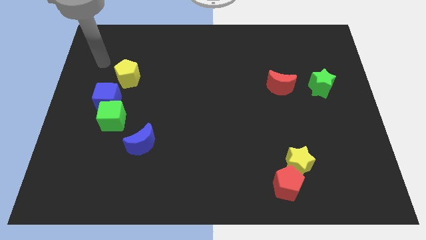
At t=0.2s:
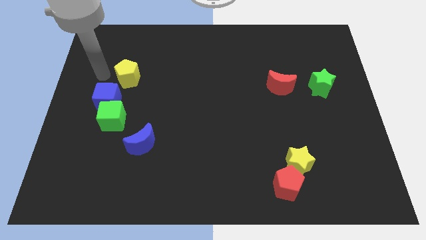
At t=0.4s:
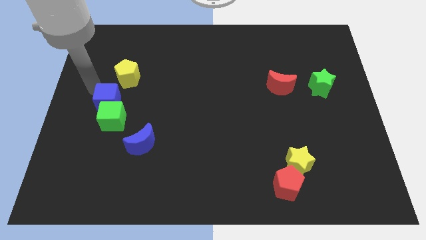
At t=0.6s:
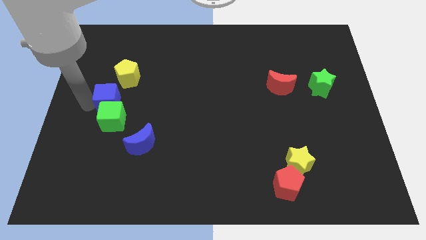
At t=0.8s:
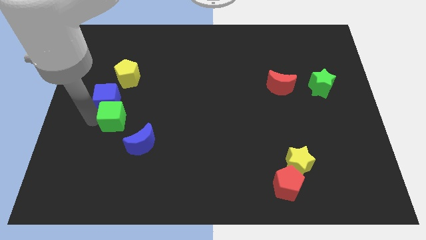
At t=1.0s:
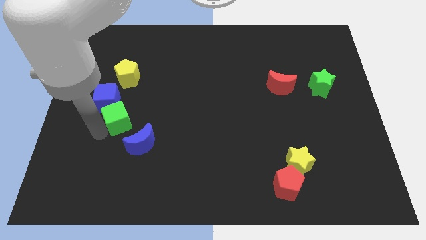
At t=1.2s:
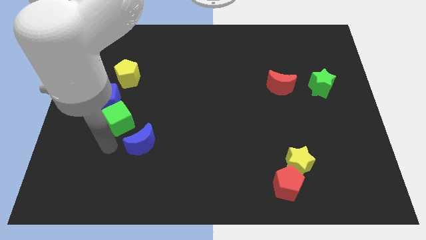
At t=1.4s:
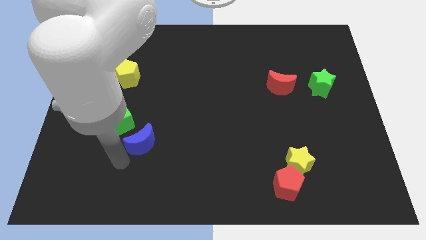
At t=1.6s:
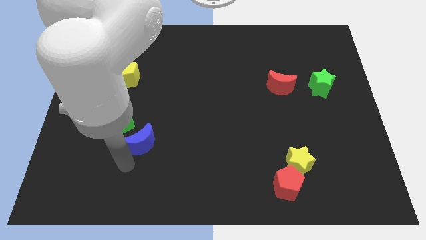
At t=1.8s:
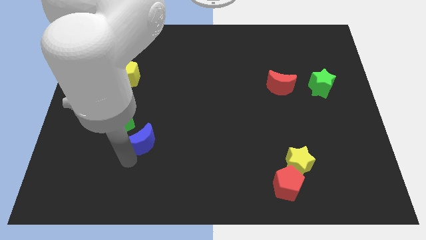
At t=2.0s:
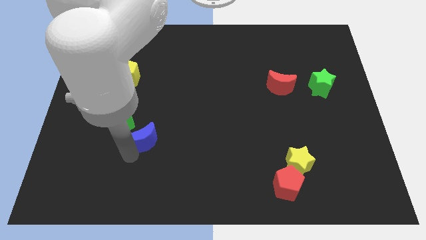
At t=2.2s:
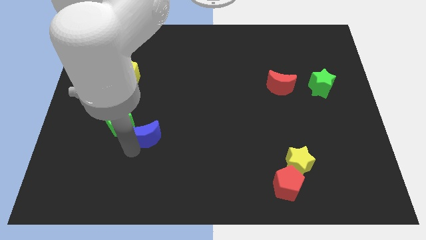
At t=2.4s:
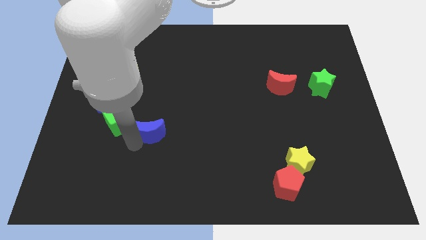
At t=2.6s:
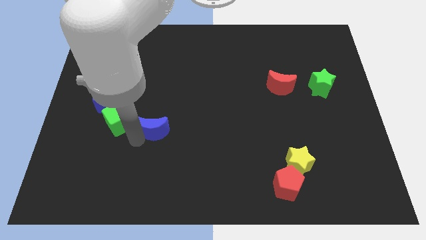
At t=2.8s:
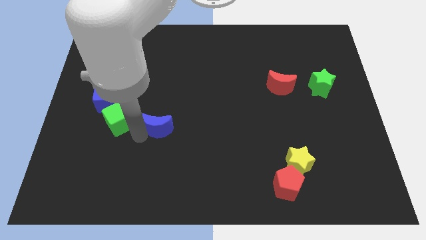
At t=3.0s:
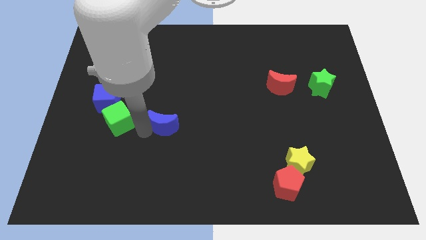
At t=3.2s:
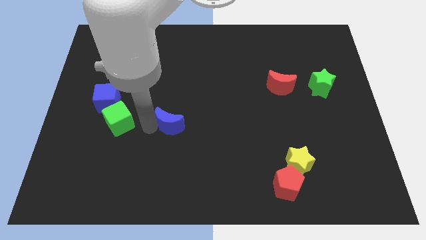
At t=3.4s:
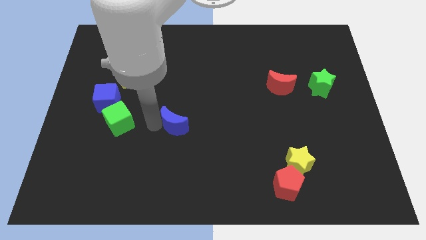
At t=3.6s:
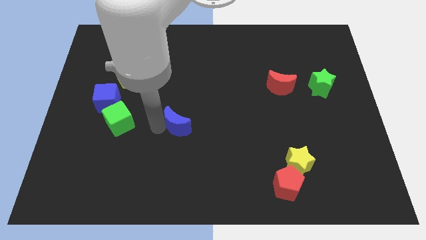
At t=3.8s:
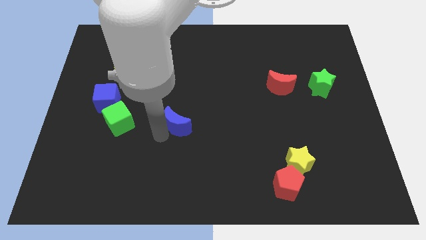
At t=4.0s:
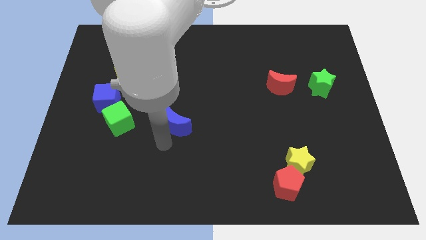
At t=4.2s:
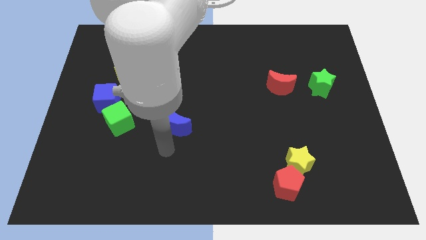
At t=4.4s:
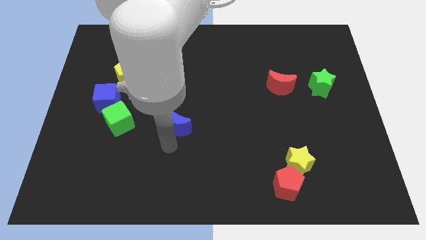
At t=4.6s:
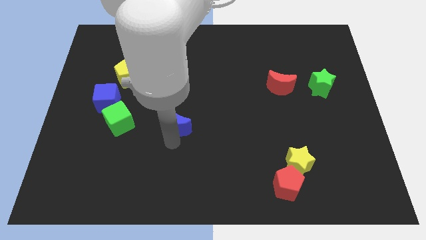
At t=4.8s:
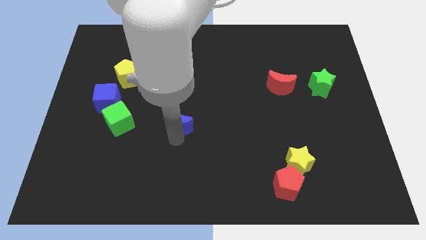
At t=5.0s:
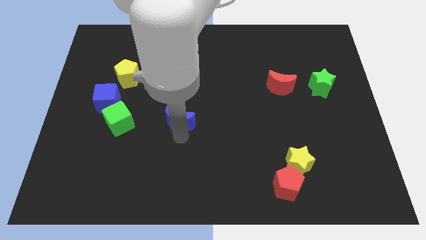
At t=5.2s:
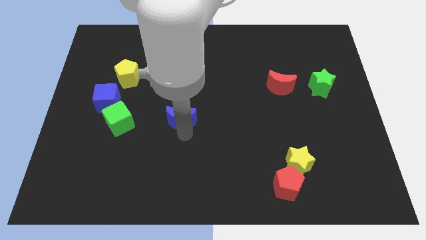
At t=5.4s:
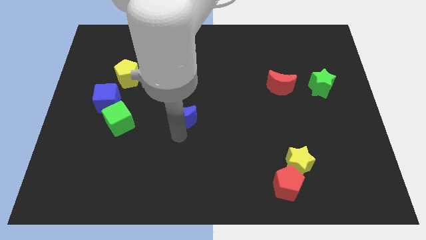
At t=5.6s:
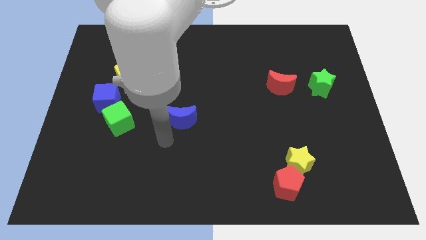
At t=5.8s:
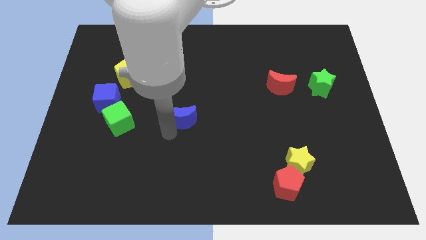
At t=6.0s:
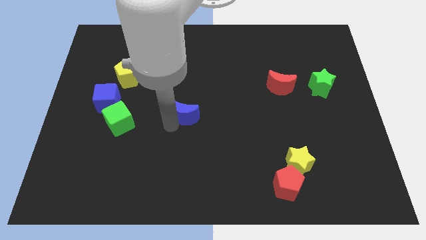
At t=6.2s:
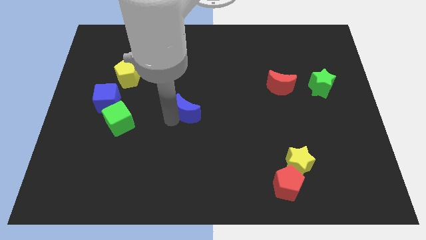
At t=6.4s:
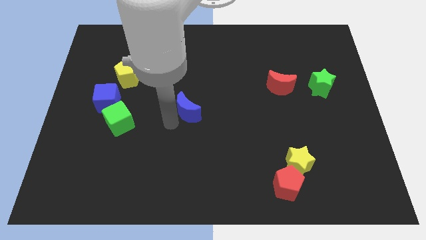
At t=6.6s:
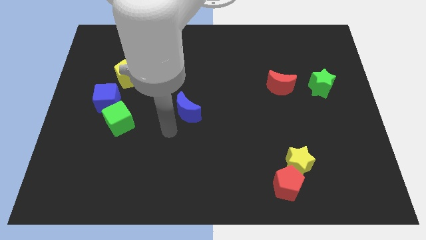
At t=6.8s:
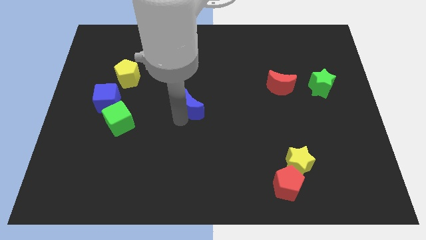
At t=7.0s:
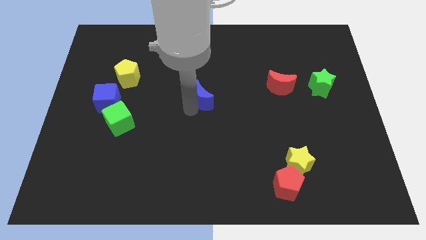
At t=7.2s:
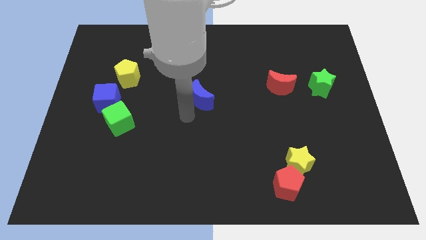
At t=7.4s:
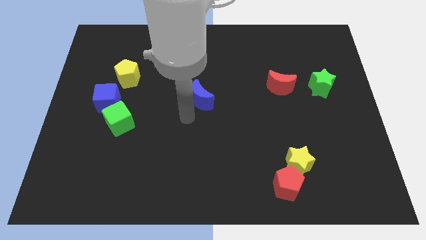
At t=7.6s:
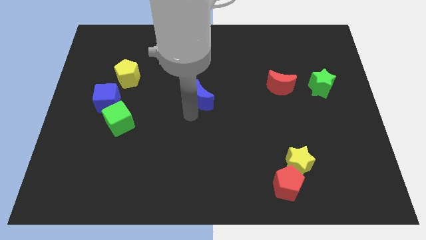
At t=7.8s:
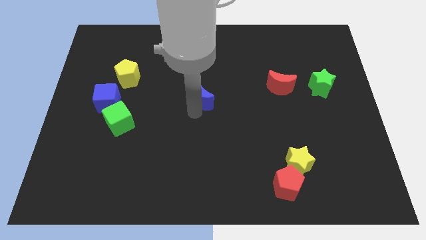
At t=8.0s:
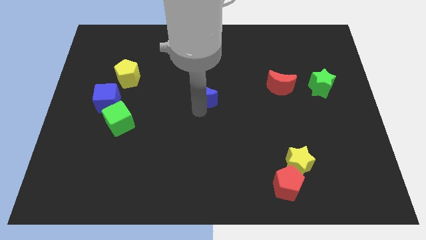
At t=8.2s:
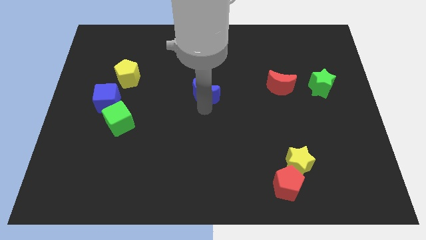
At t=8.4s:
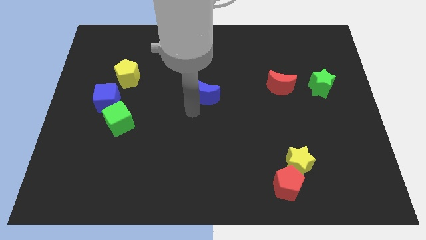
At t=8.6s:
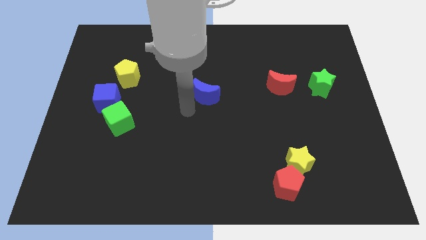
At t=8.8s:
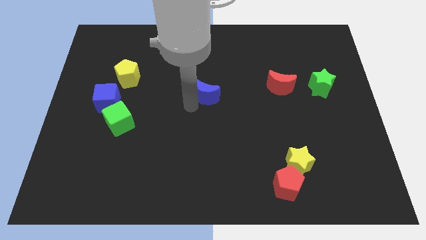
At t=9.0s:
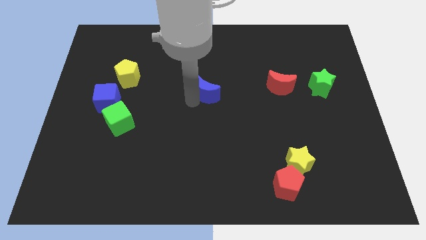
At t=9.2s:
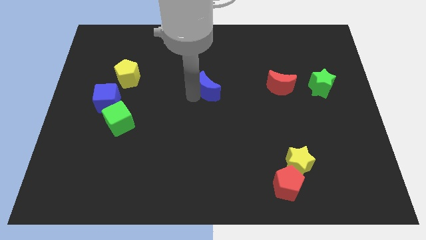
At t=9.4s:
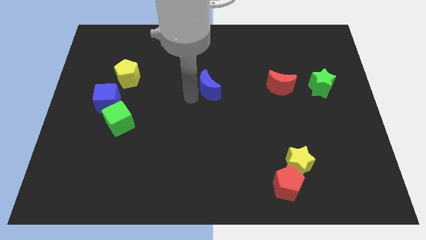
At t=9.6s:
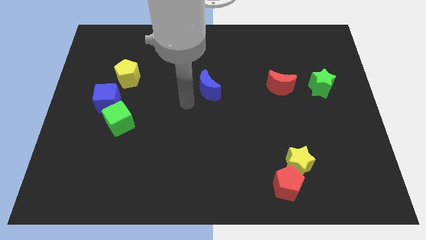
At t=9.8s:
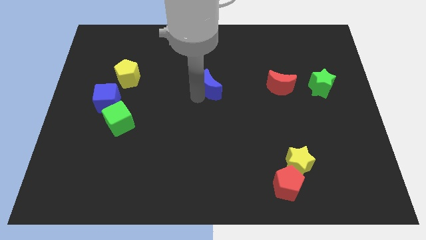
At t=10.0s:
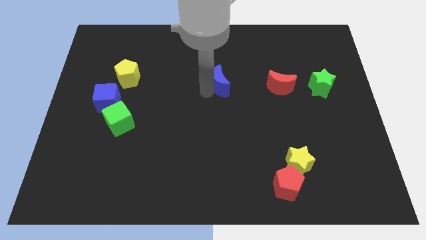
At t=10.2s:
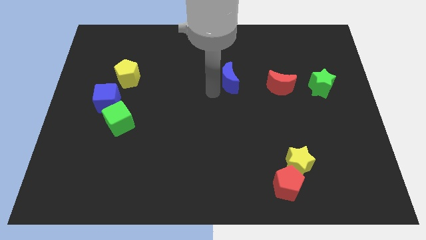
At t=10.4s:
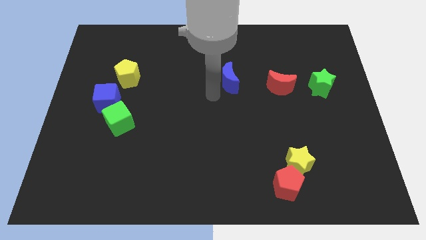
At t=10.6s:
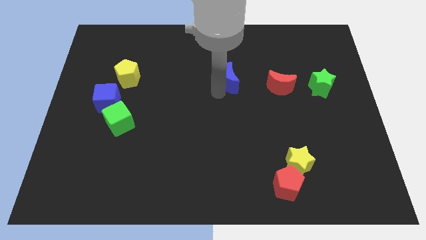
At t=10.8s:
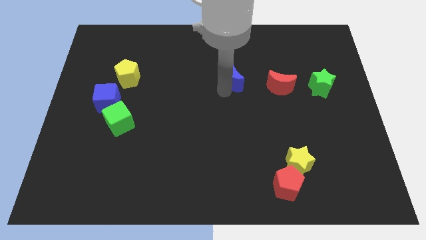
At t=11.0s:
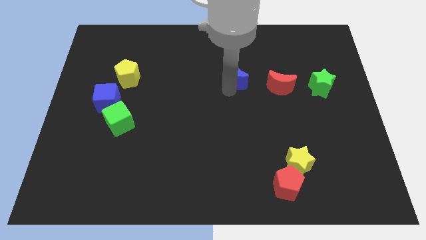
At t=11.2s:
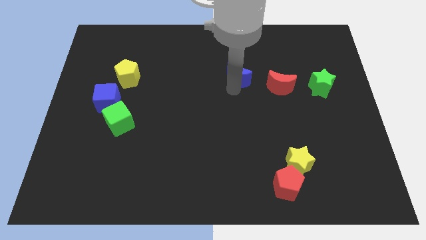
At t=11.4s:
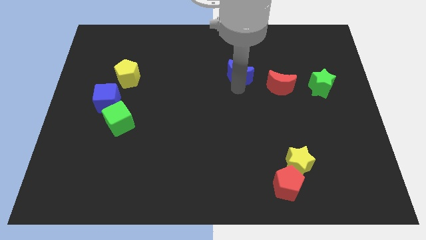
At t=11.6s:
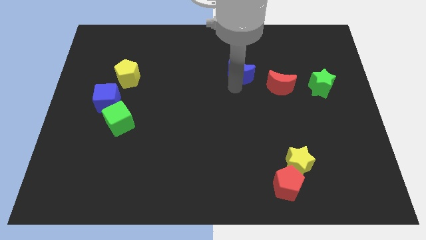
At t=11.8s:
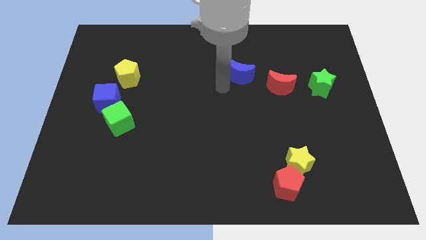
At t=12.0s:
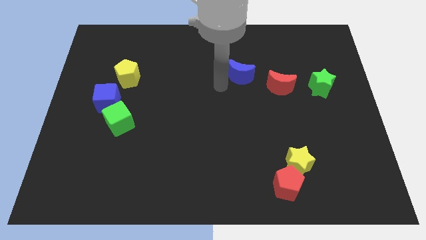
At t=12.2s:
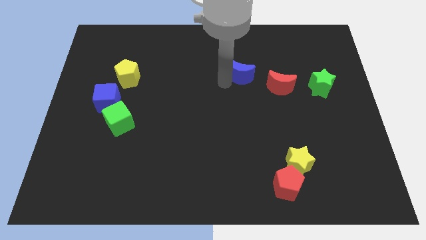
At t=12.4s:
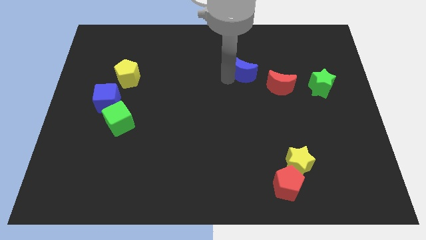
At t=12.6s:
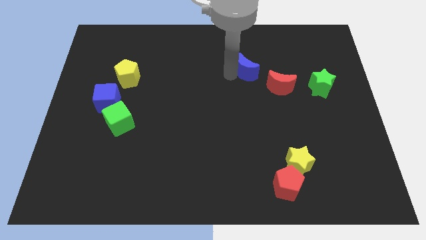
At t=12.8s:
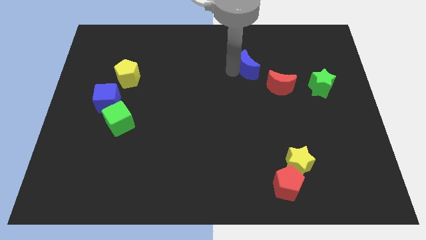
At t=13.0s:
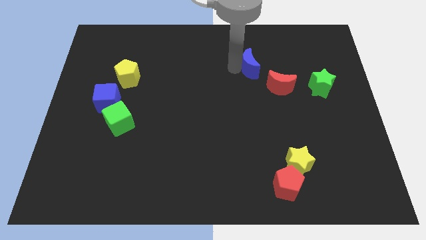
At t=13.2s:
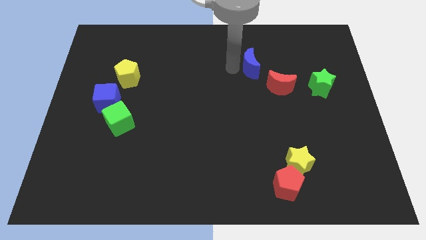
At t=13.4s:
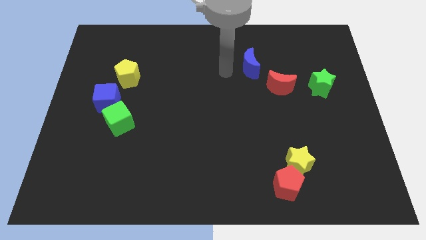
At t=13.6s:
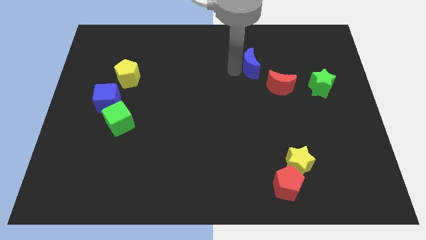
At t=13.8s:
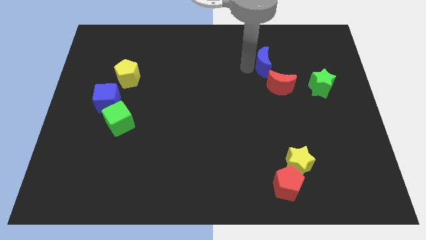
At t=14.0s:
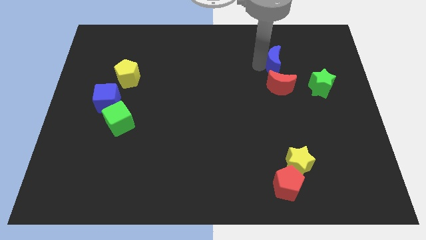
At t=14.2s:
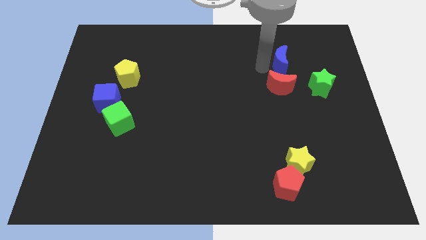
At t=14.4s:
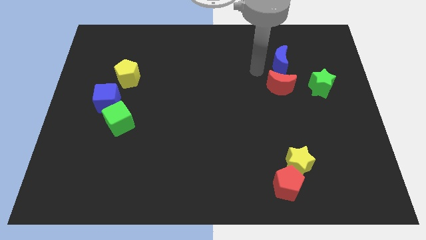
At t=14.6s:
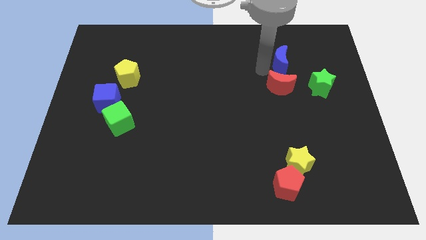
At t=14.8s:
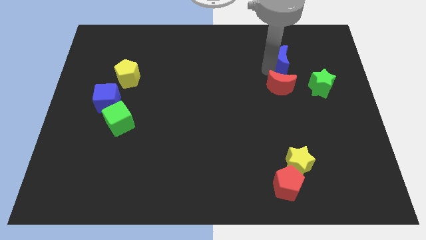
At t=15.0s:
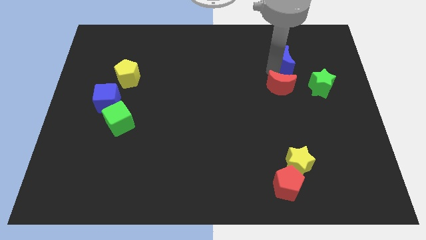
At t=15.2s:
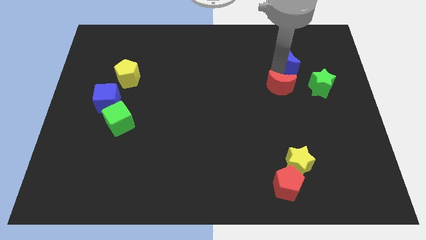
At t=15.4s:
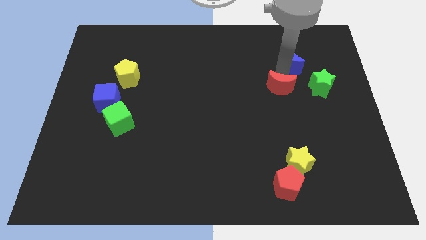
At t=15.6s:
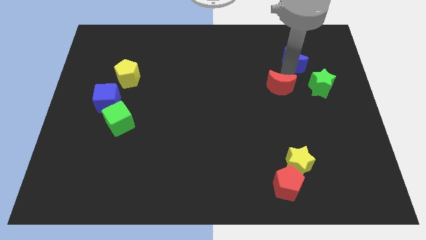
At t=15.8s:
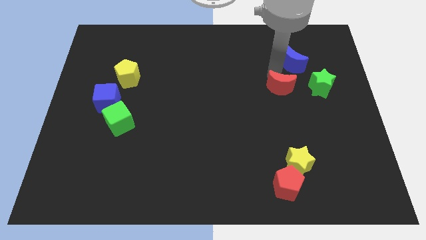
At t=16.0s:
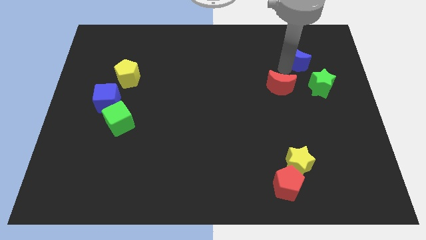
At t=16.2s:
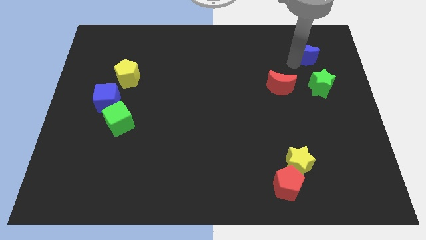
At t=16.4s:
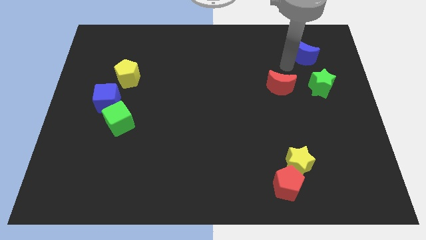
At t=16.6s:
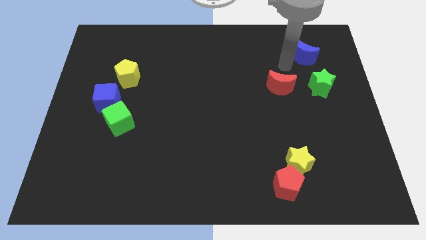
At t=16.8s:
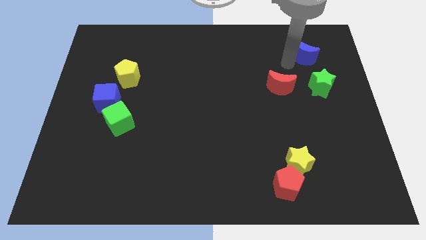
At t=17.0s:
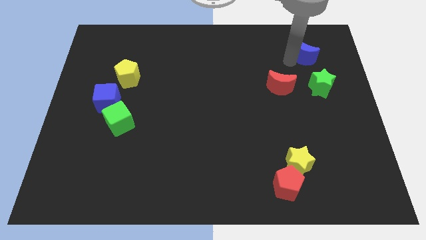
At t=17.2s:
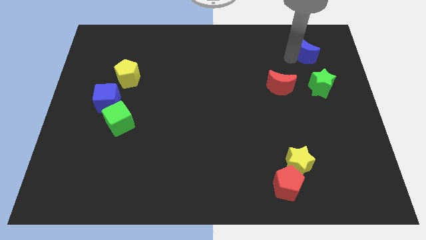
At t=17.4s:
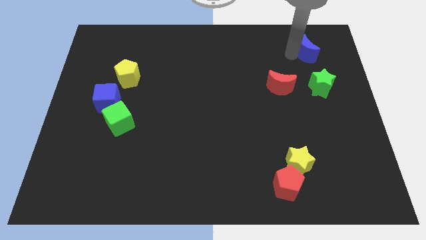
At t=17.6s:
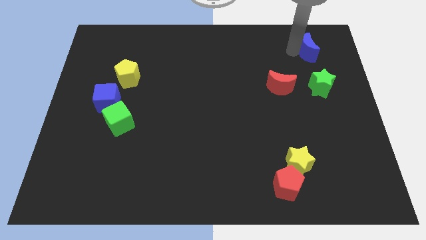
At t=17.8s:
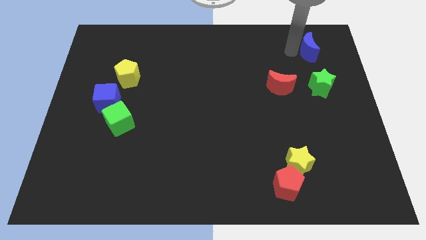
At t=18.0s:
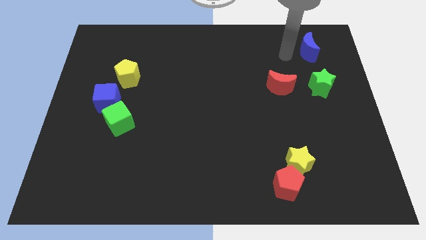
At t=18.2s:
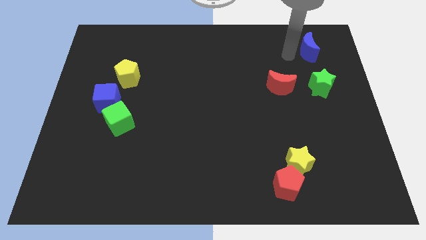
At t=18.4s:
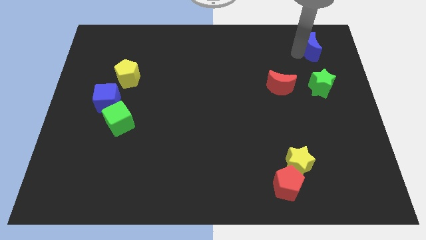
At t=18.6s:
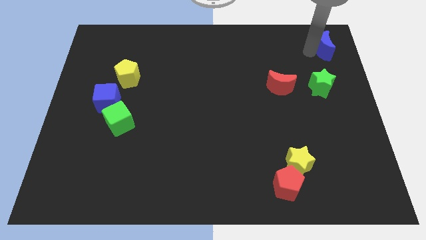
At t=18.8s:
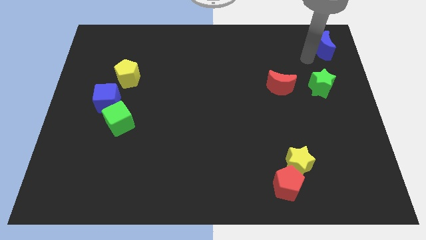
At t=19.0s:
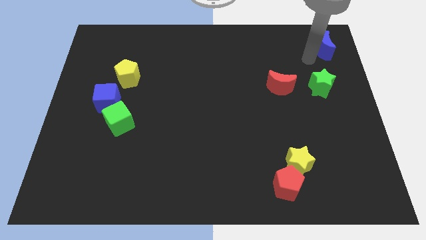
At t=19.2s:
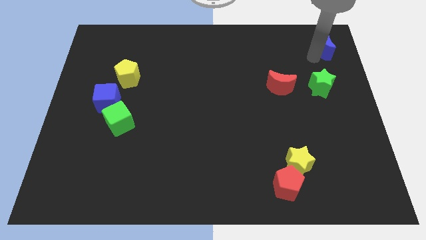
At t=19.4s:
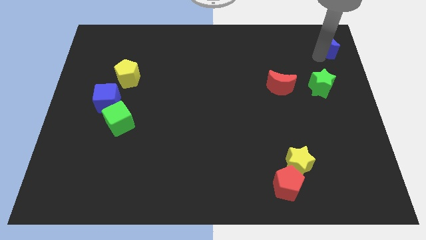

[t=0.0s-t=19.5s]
push the blue moon to the top right
